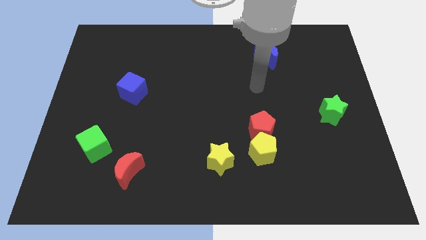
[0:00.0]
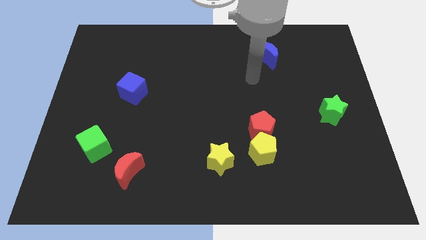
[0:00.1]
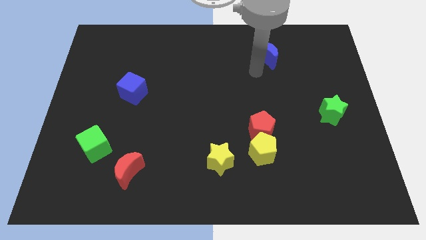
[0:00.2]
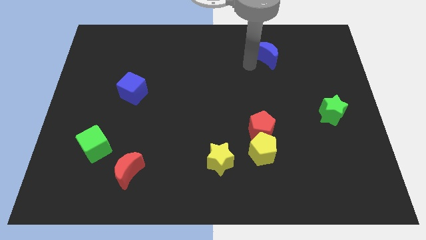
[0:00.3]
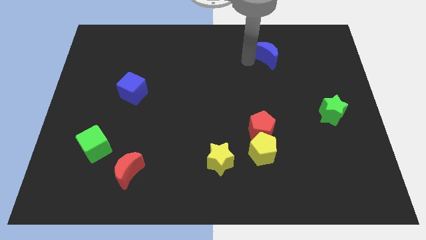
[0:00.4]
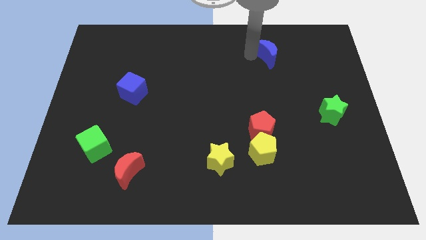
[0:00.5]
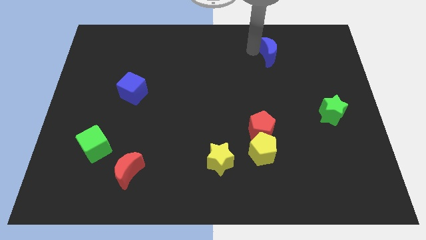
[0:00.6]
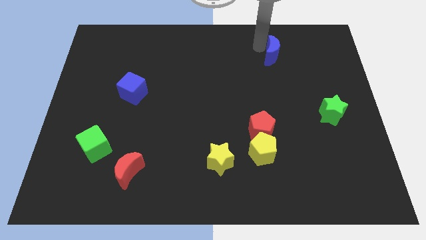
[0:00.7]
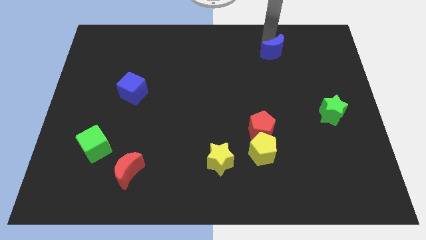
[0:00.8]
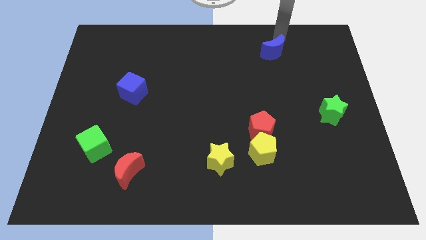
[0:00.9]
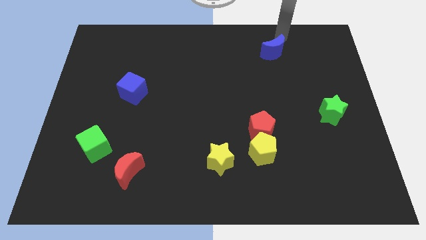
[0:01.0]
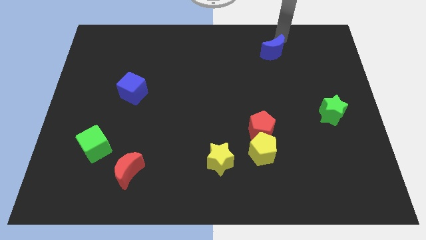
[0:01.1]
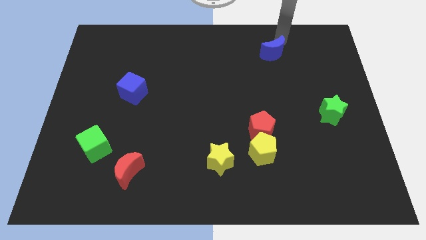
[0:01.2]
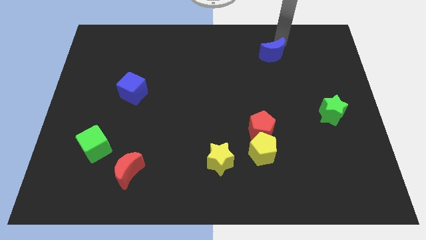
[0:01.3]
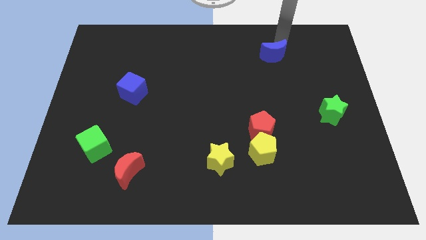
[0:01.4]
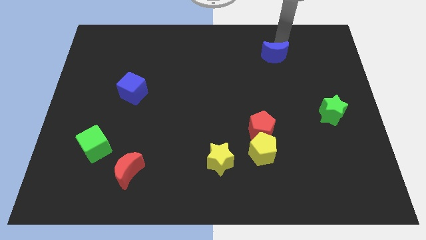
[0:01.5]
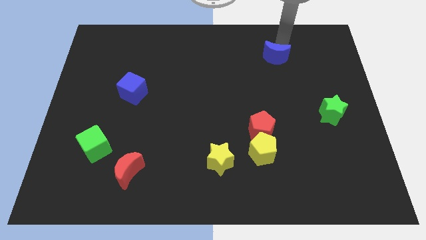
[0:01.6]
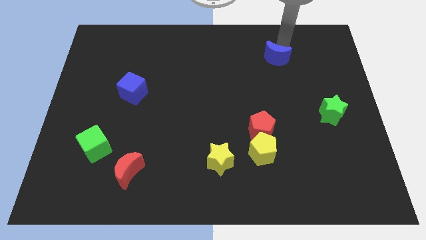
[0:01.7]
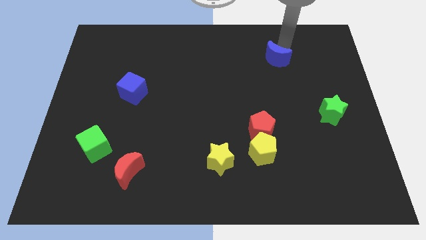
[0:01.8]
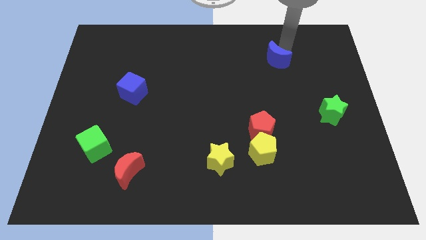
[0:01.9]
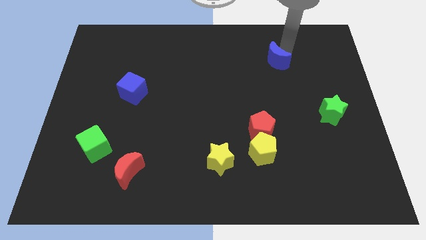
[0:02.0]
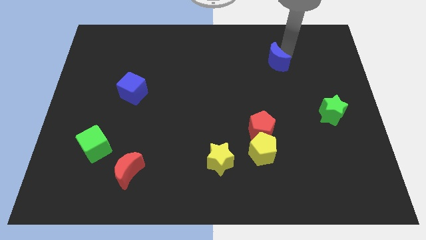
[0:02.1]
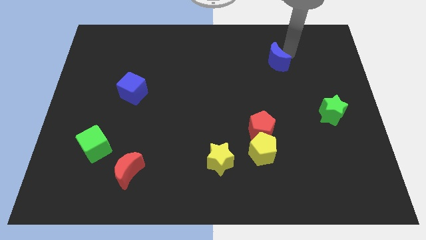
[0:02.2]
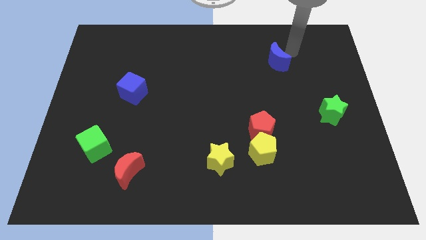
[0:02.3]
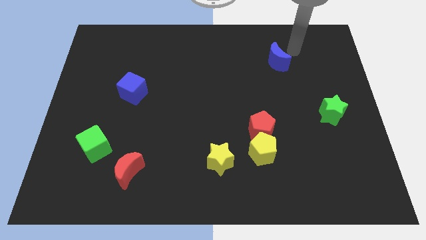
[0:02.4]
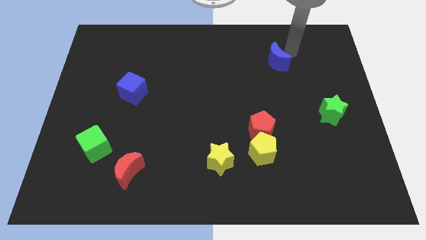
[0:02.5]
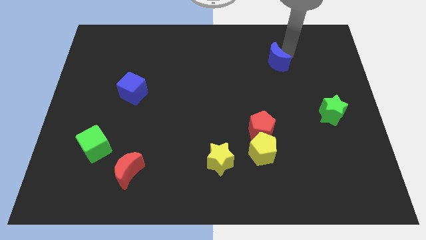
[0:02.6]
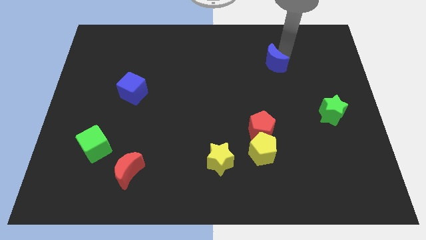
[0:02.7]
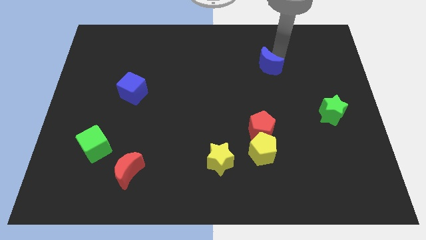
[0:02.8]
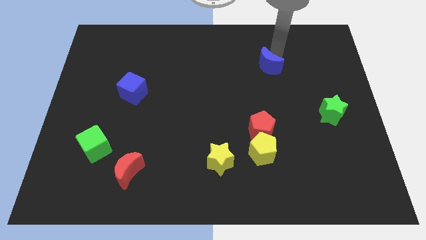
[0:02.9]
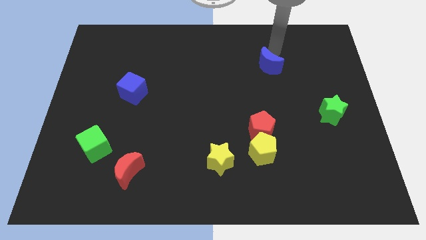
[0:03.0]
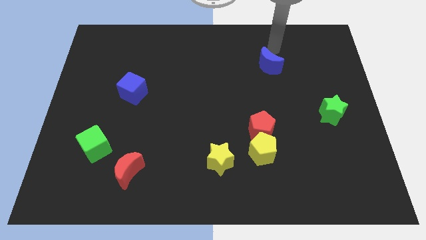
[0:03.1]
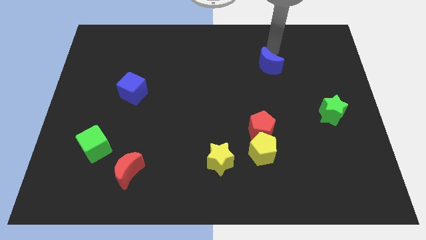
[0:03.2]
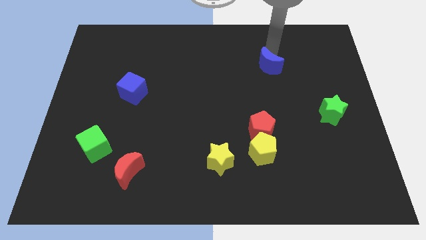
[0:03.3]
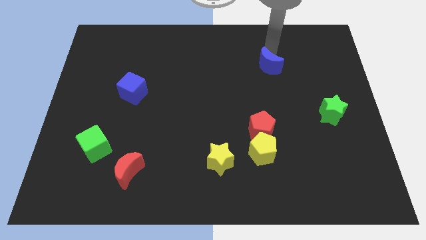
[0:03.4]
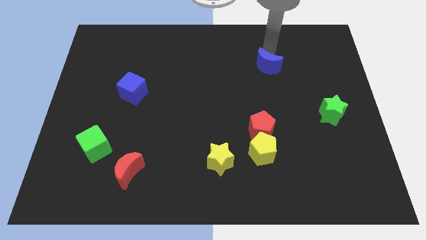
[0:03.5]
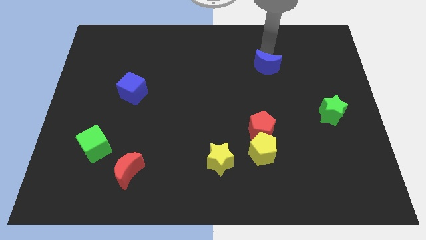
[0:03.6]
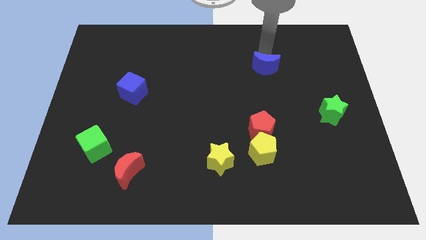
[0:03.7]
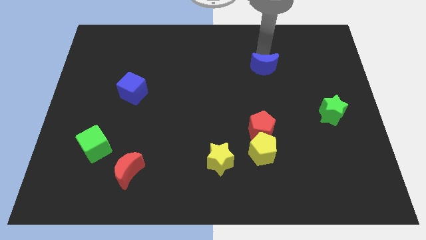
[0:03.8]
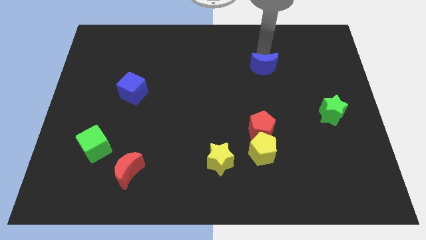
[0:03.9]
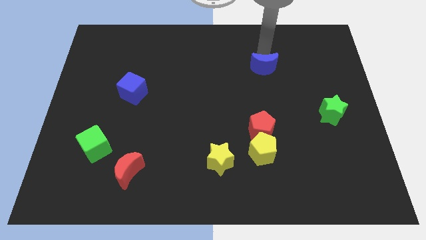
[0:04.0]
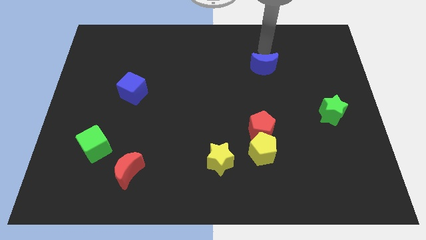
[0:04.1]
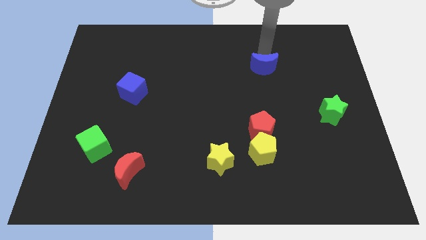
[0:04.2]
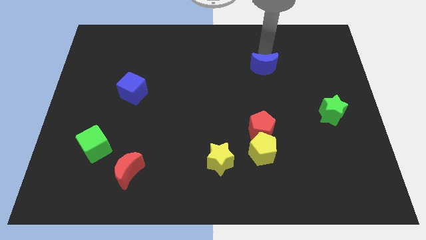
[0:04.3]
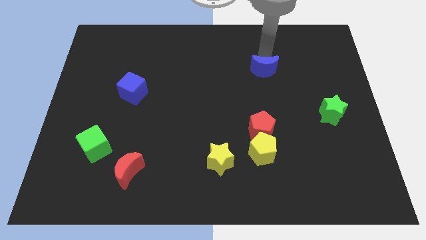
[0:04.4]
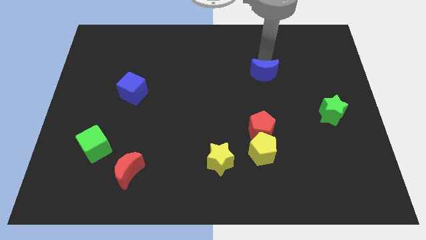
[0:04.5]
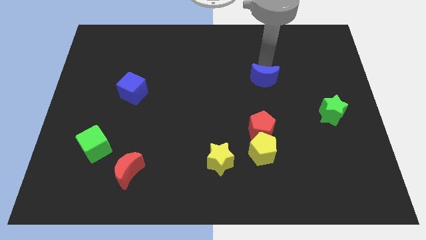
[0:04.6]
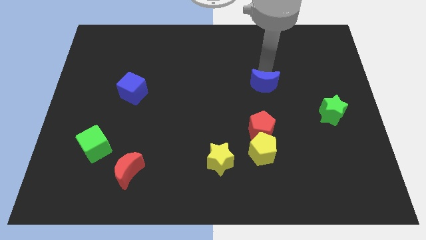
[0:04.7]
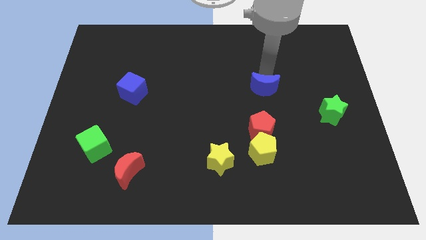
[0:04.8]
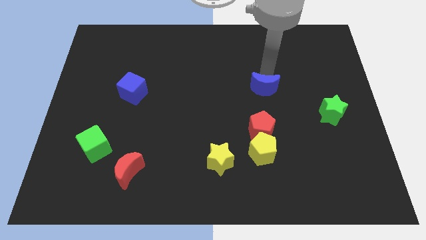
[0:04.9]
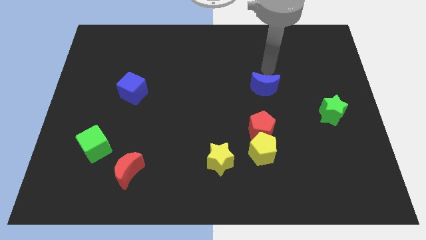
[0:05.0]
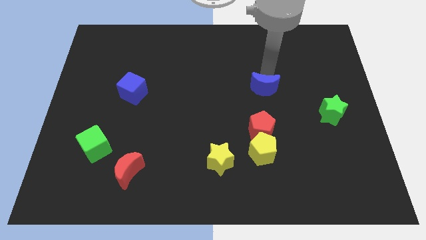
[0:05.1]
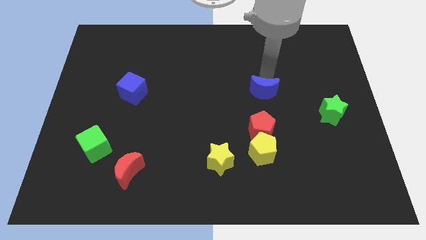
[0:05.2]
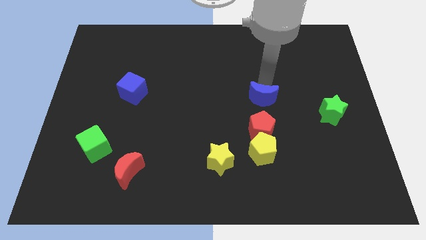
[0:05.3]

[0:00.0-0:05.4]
move the blue moon to the top side of the yellow pentagon

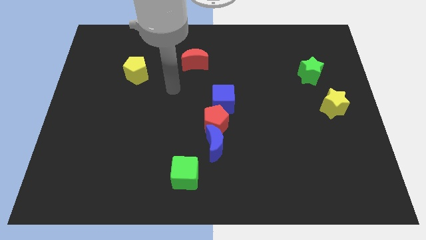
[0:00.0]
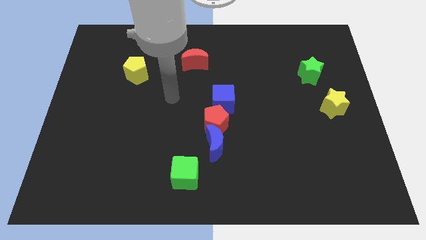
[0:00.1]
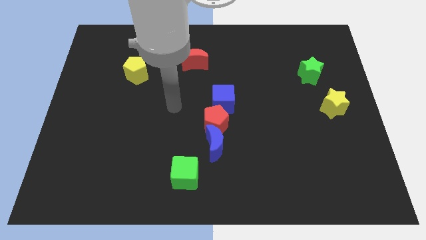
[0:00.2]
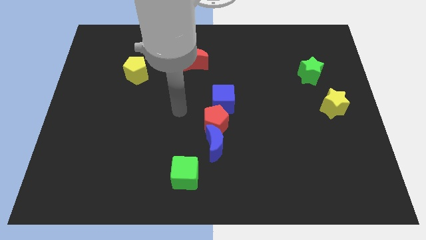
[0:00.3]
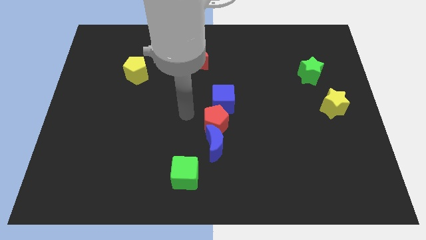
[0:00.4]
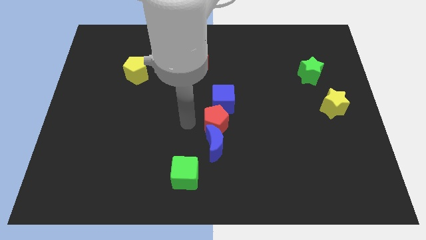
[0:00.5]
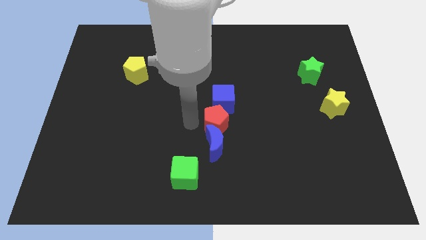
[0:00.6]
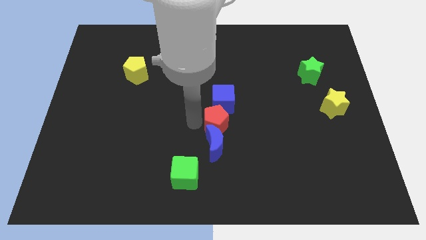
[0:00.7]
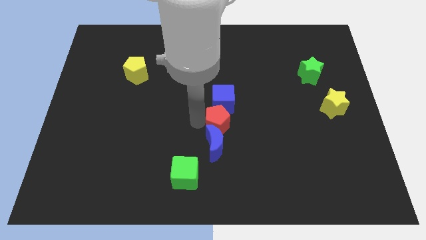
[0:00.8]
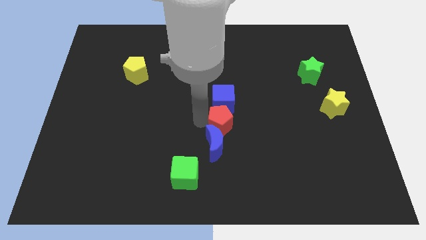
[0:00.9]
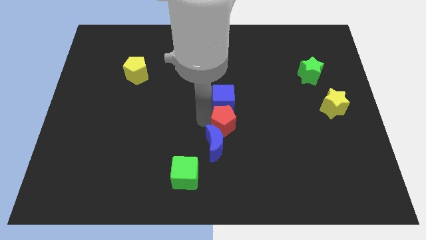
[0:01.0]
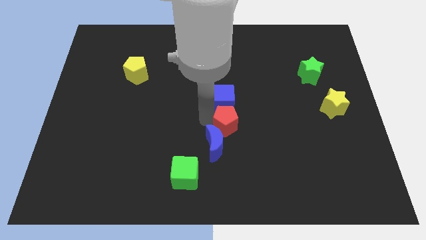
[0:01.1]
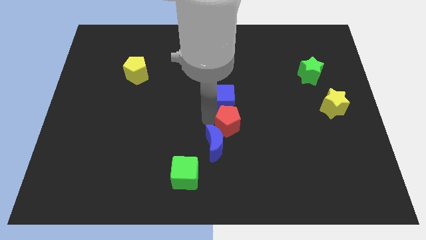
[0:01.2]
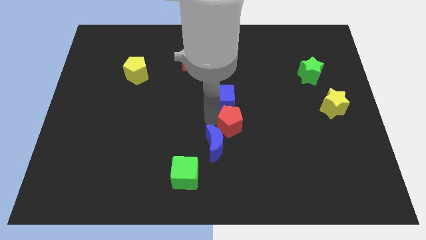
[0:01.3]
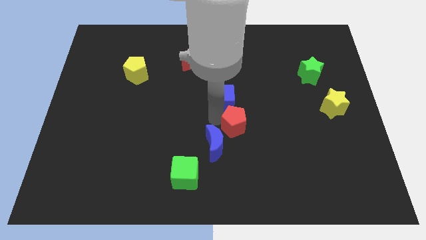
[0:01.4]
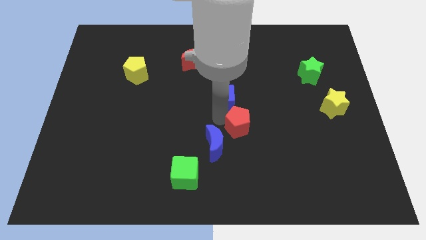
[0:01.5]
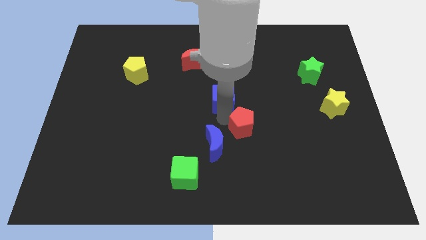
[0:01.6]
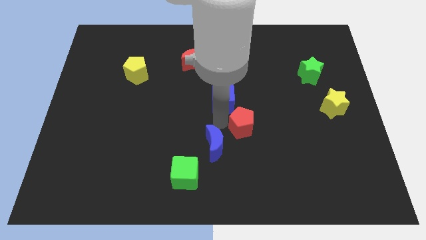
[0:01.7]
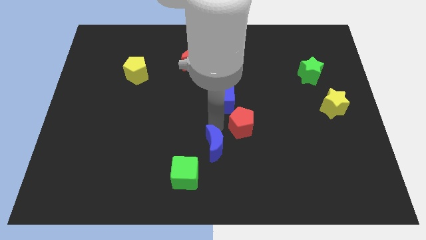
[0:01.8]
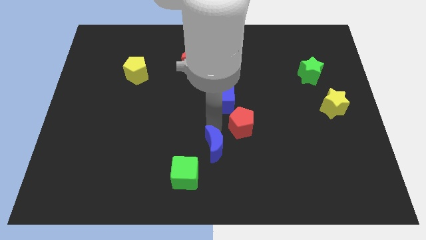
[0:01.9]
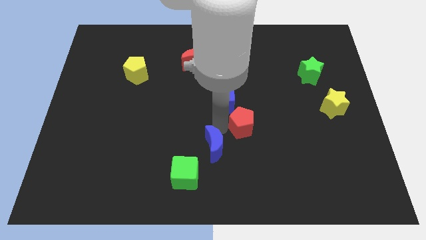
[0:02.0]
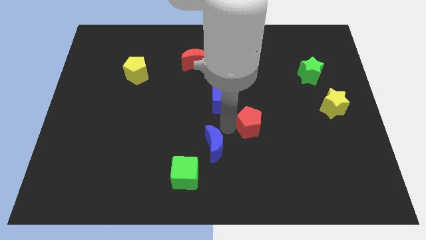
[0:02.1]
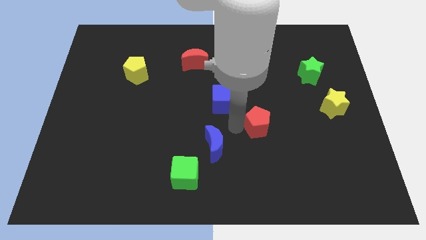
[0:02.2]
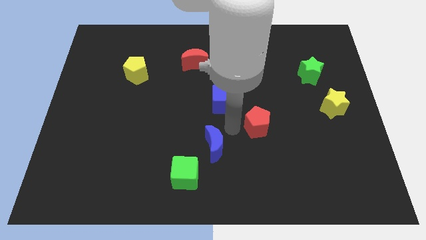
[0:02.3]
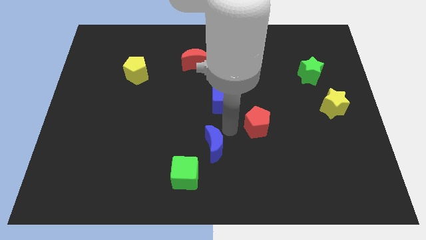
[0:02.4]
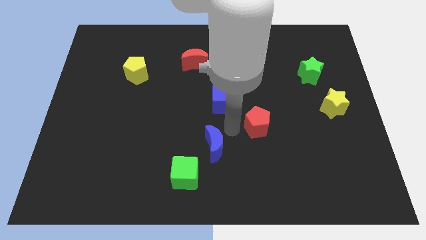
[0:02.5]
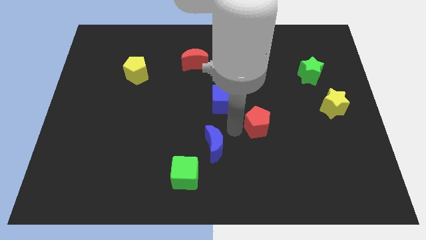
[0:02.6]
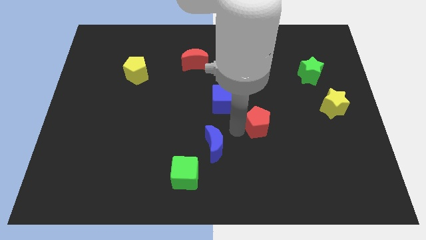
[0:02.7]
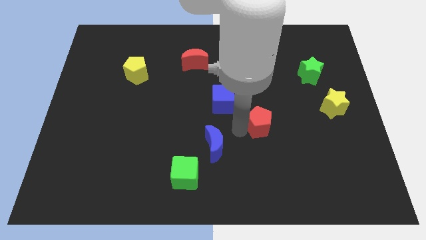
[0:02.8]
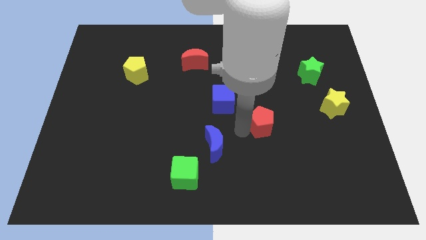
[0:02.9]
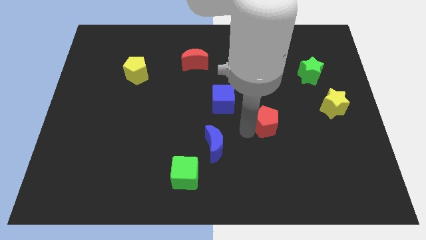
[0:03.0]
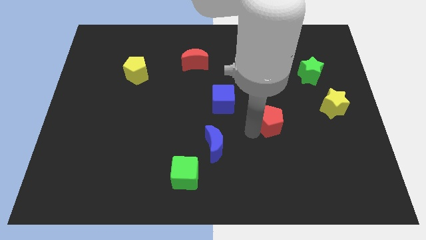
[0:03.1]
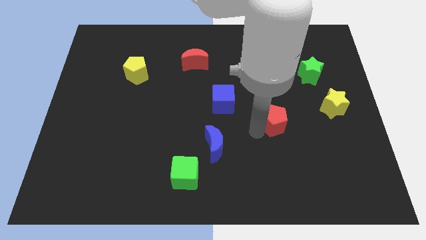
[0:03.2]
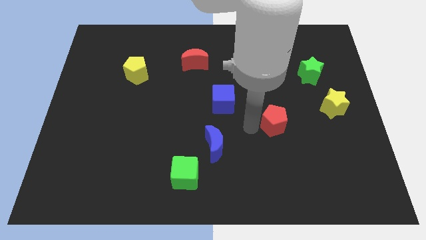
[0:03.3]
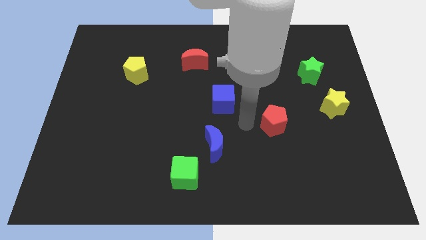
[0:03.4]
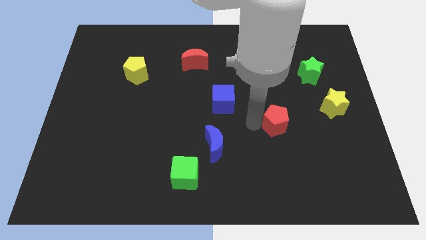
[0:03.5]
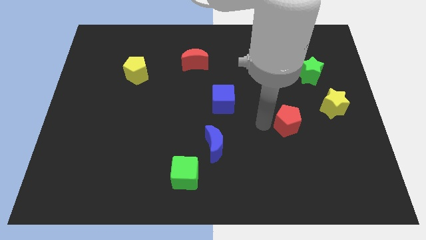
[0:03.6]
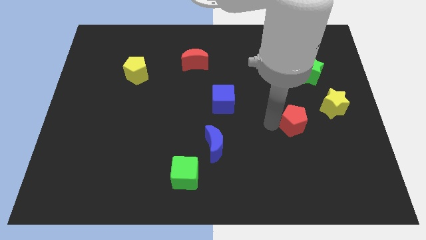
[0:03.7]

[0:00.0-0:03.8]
slide the red pentagon to the bottom left of the yellow star
